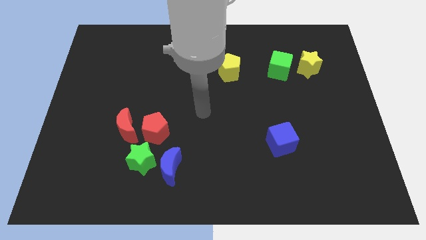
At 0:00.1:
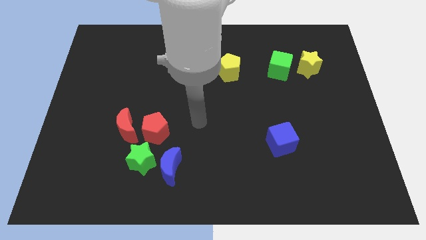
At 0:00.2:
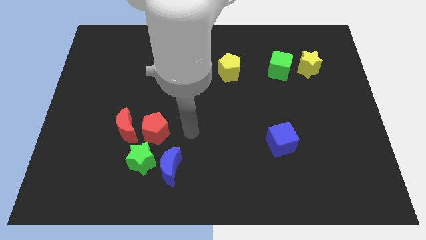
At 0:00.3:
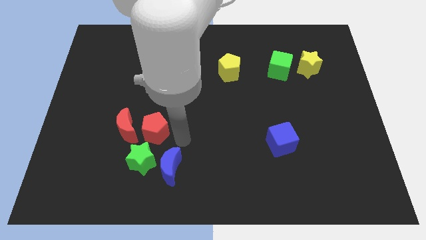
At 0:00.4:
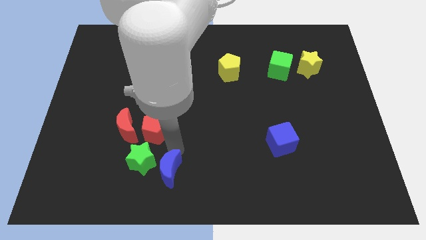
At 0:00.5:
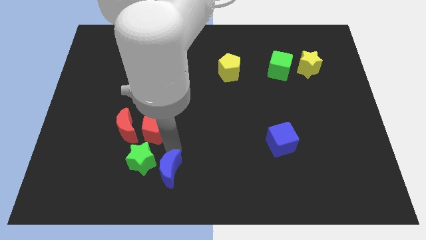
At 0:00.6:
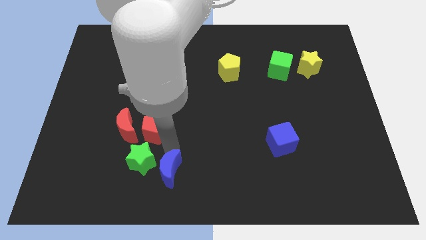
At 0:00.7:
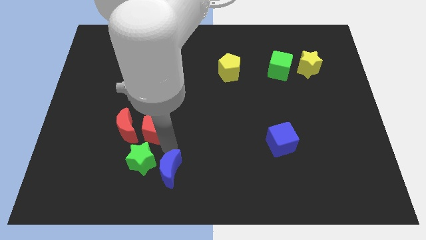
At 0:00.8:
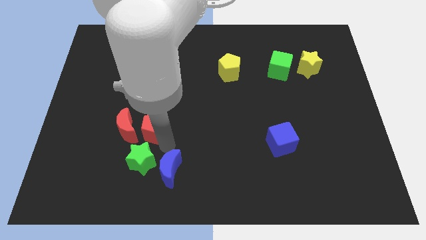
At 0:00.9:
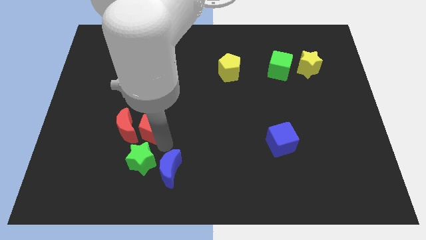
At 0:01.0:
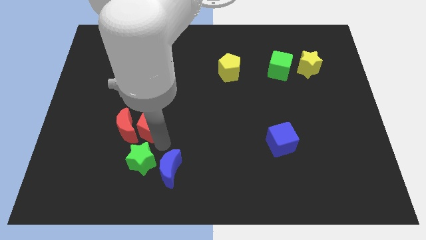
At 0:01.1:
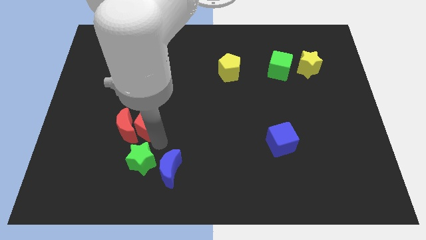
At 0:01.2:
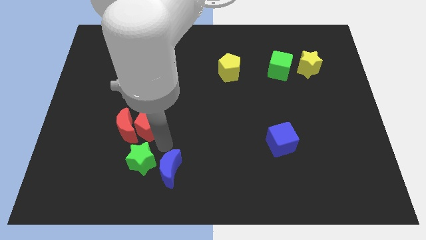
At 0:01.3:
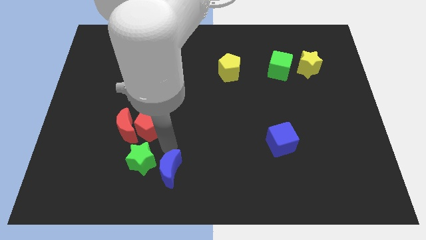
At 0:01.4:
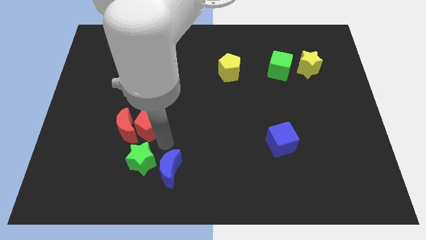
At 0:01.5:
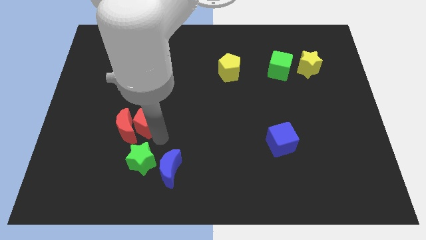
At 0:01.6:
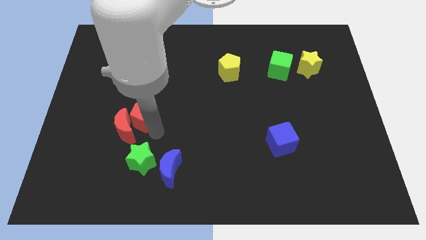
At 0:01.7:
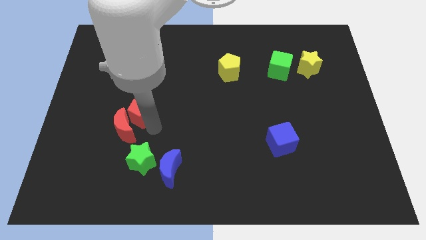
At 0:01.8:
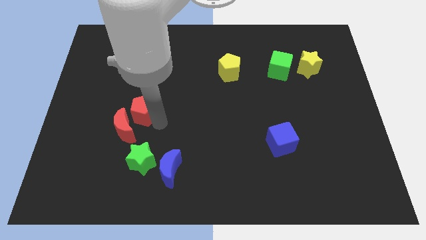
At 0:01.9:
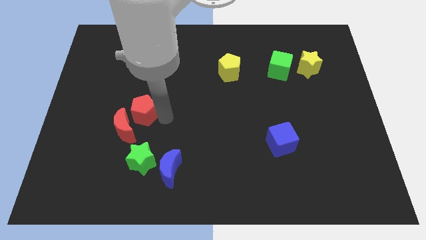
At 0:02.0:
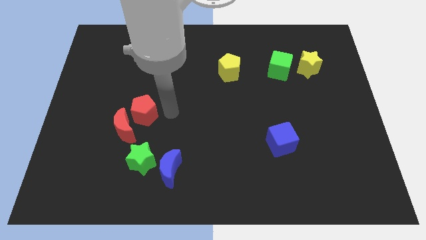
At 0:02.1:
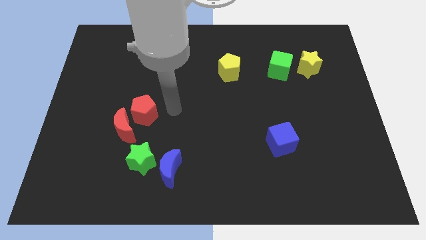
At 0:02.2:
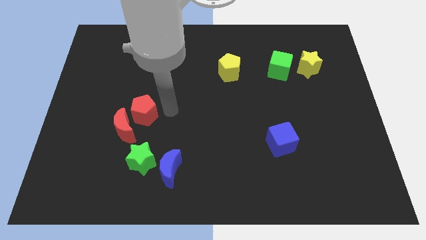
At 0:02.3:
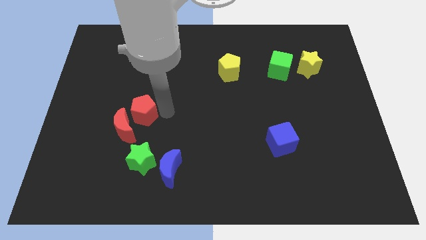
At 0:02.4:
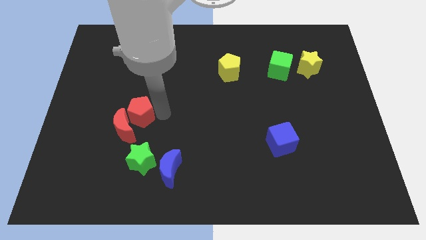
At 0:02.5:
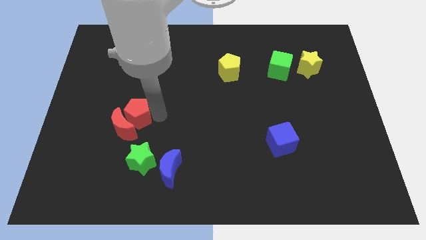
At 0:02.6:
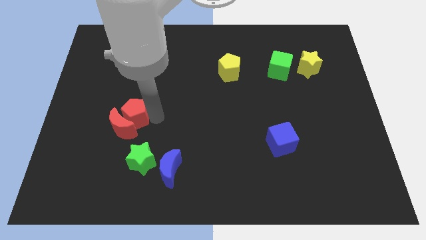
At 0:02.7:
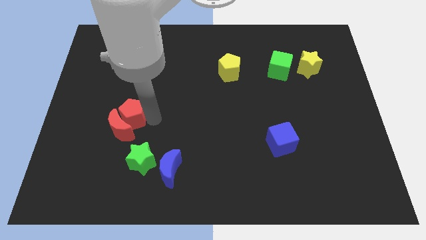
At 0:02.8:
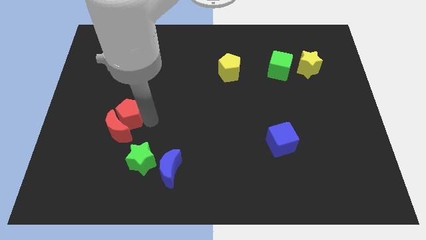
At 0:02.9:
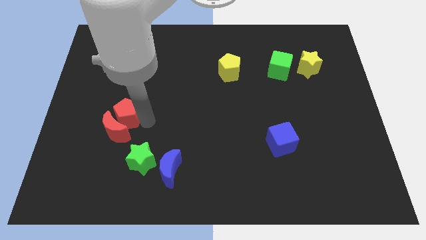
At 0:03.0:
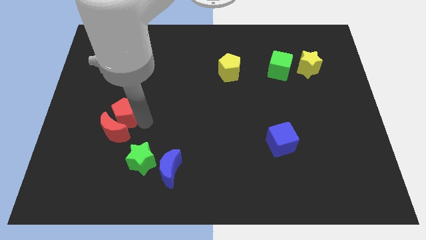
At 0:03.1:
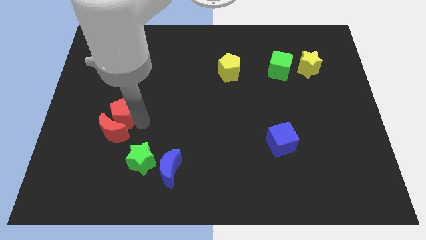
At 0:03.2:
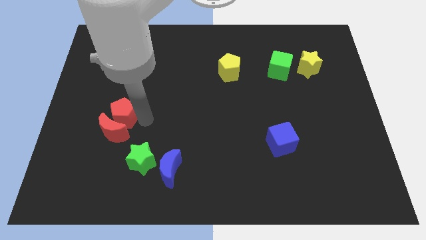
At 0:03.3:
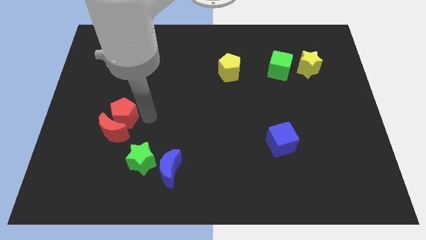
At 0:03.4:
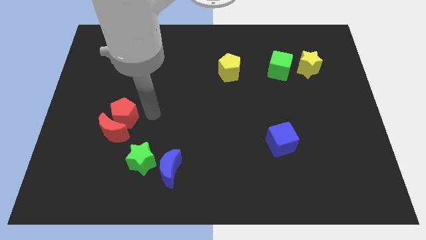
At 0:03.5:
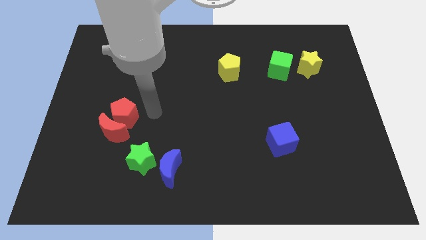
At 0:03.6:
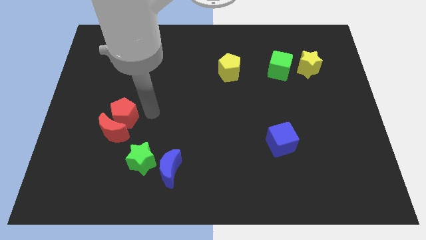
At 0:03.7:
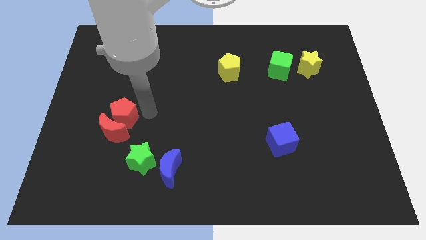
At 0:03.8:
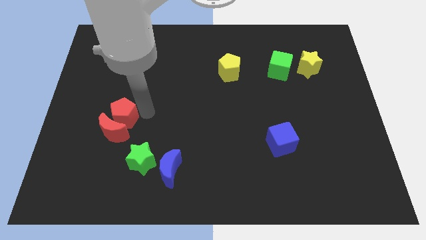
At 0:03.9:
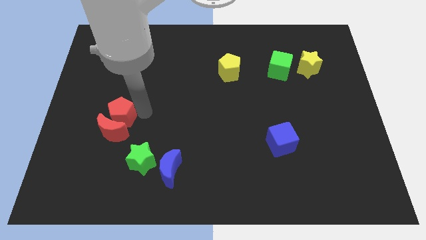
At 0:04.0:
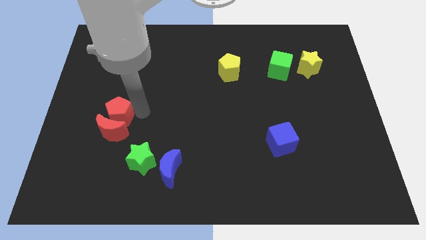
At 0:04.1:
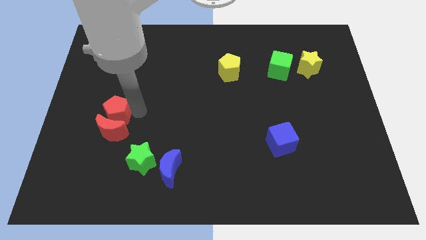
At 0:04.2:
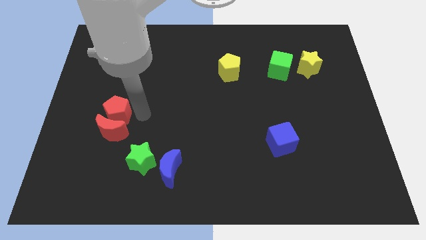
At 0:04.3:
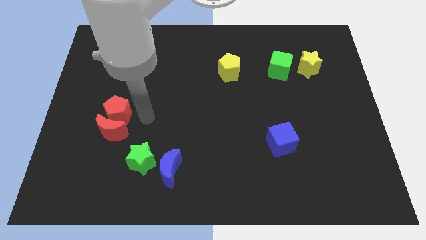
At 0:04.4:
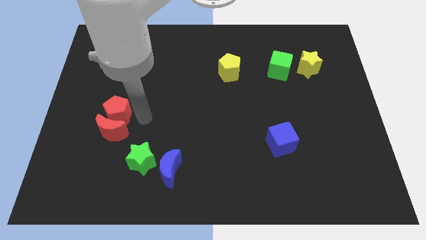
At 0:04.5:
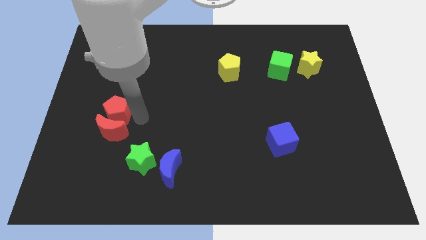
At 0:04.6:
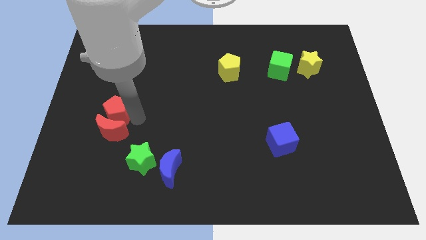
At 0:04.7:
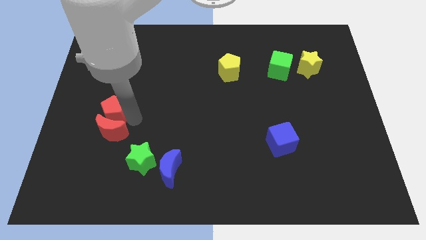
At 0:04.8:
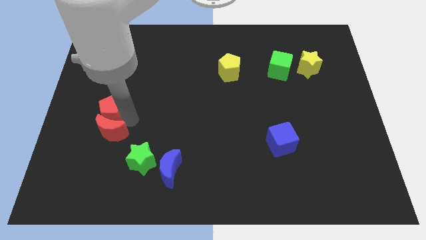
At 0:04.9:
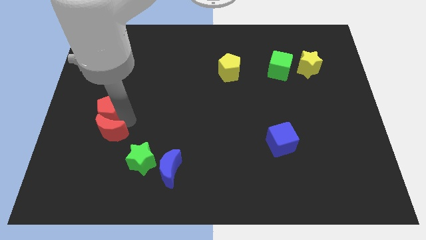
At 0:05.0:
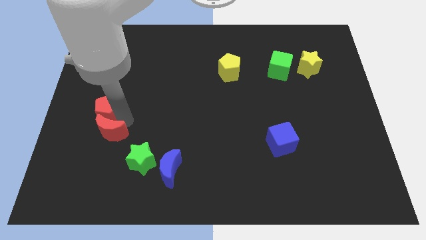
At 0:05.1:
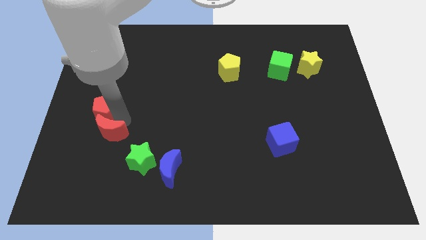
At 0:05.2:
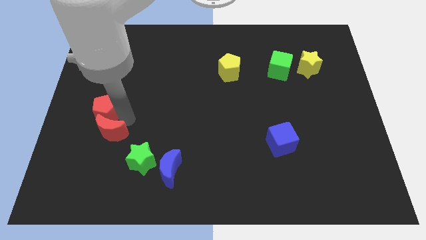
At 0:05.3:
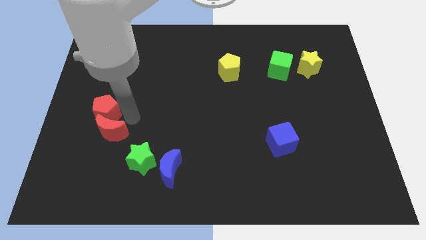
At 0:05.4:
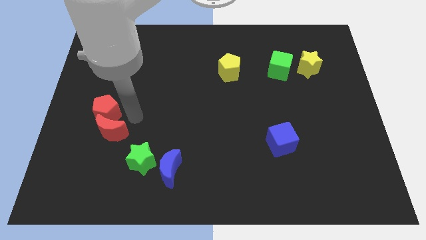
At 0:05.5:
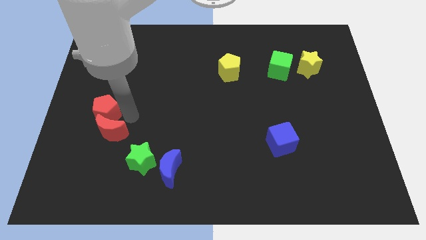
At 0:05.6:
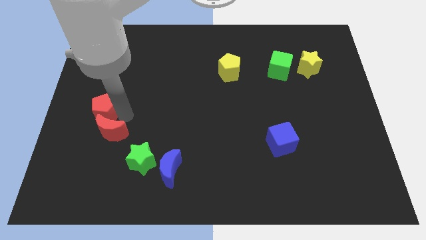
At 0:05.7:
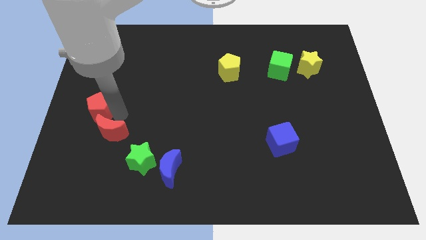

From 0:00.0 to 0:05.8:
slide the red pentagon to the left side of the board
